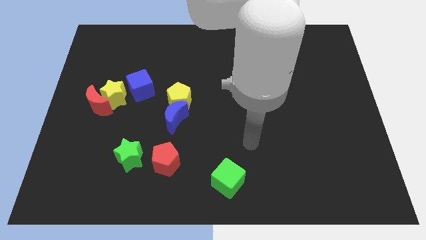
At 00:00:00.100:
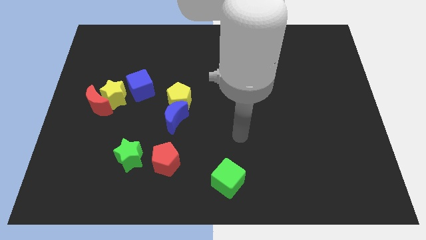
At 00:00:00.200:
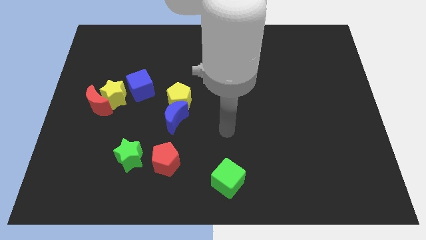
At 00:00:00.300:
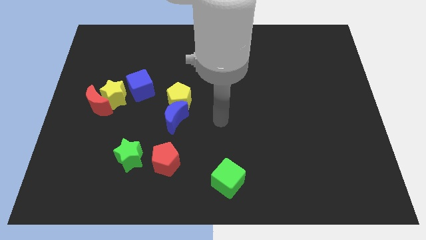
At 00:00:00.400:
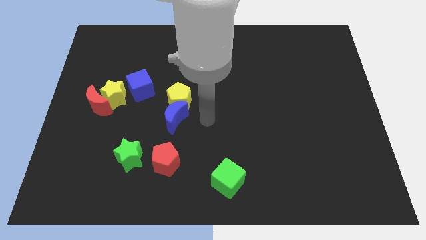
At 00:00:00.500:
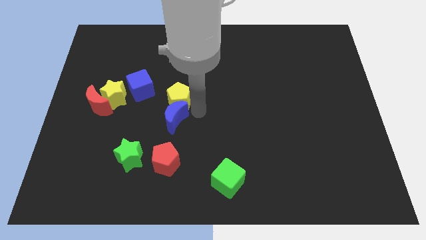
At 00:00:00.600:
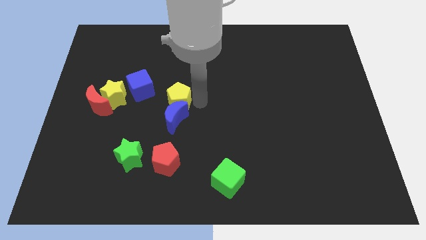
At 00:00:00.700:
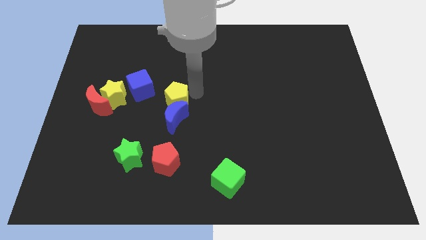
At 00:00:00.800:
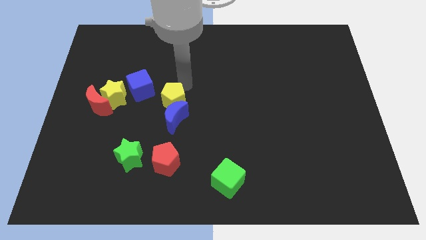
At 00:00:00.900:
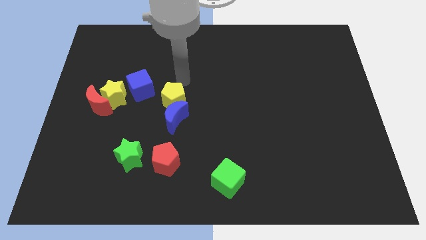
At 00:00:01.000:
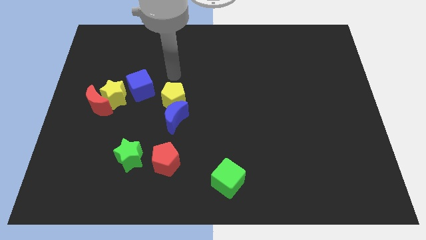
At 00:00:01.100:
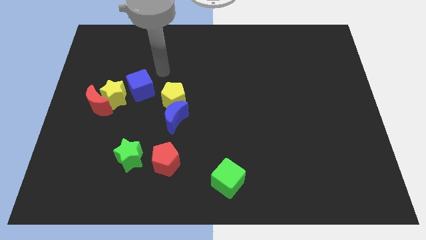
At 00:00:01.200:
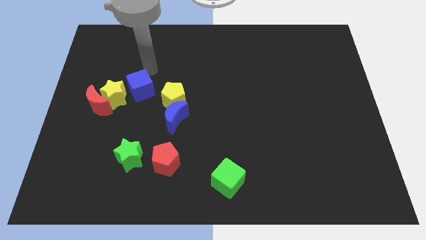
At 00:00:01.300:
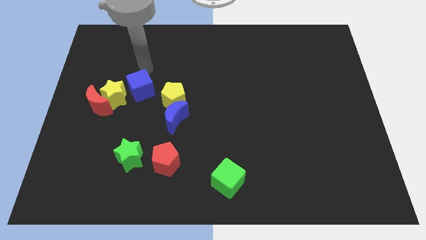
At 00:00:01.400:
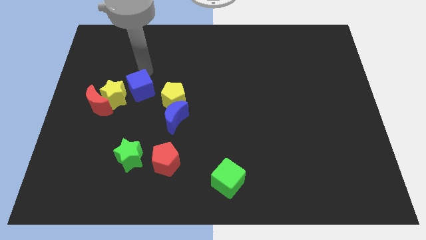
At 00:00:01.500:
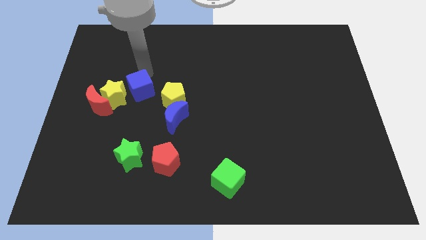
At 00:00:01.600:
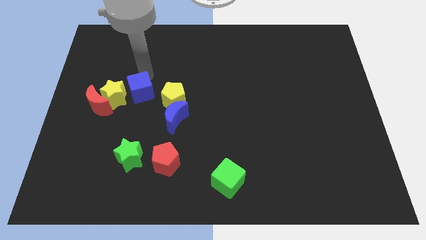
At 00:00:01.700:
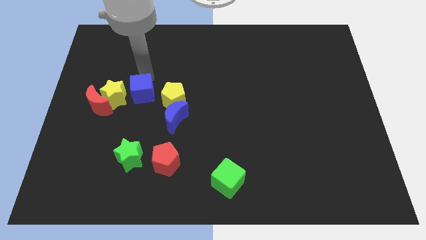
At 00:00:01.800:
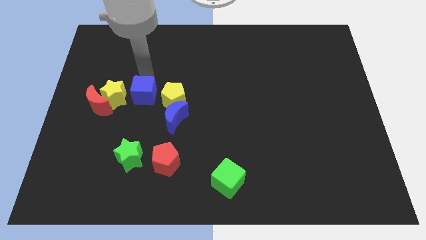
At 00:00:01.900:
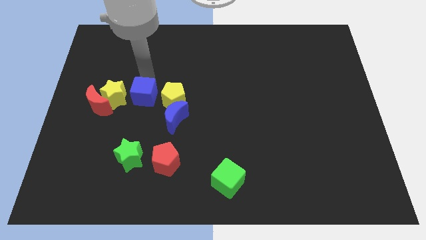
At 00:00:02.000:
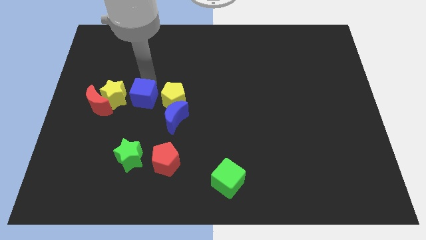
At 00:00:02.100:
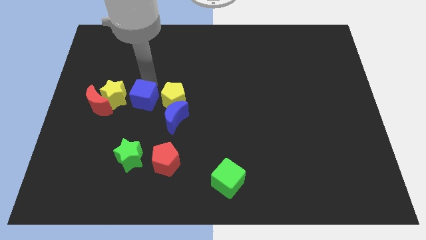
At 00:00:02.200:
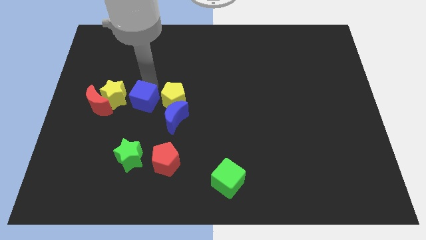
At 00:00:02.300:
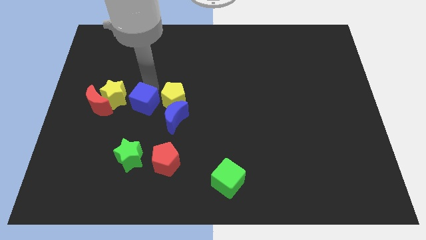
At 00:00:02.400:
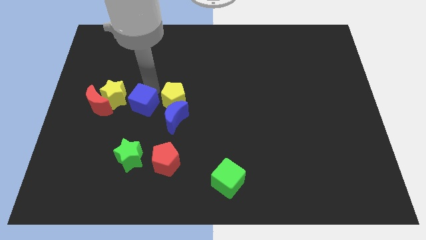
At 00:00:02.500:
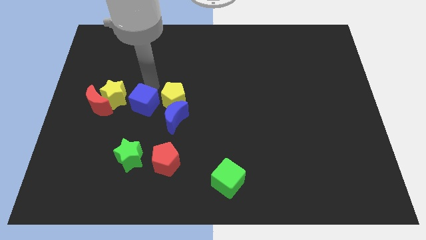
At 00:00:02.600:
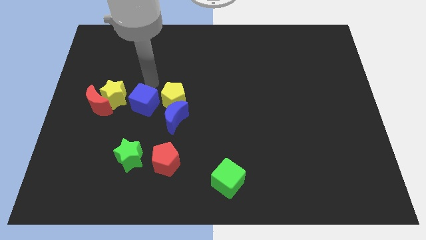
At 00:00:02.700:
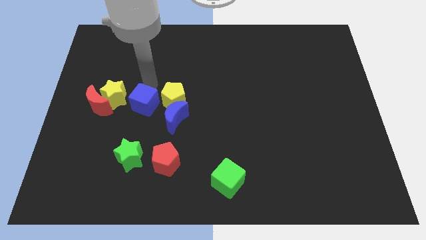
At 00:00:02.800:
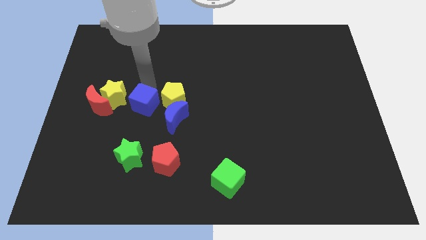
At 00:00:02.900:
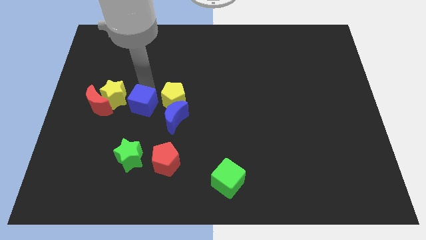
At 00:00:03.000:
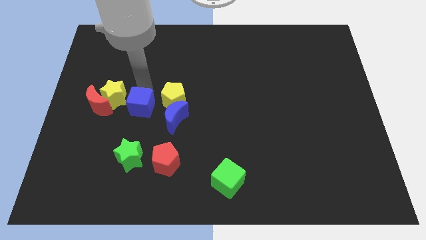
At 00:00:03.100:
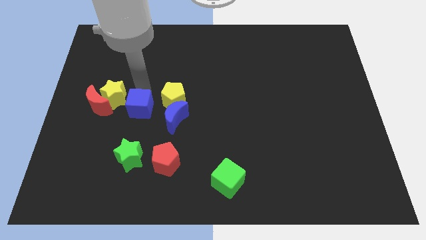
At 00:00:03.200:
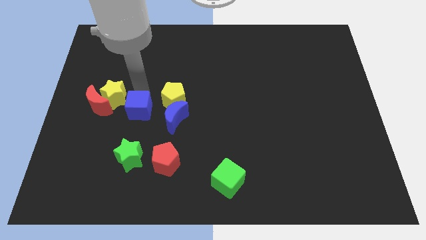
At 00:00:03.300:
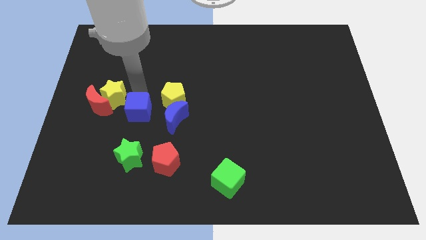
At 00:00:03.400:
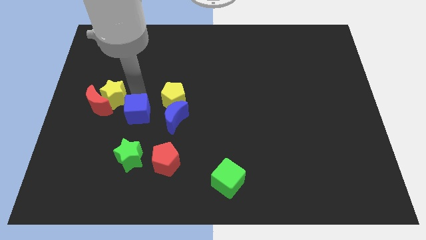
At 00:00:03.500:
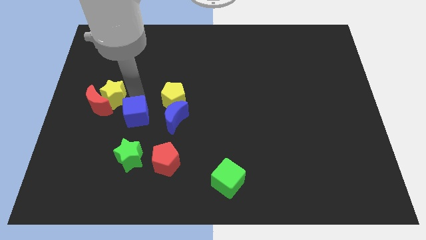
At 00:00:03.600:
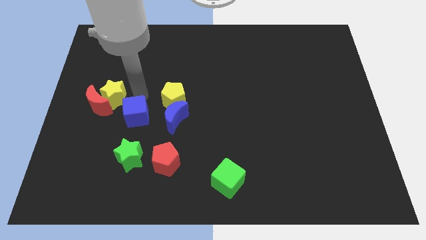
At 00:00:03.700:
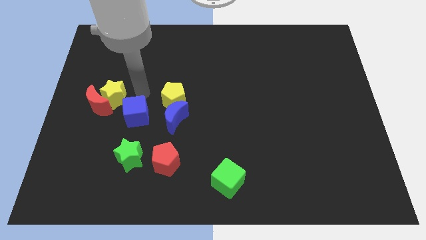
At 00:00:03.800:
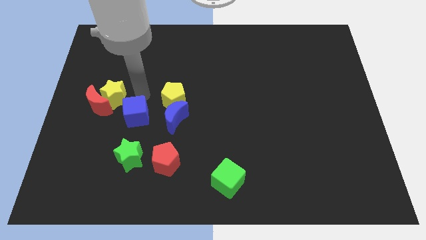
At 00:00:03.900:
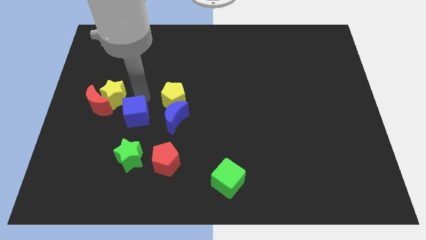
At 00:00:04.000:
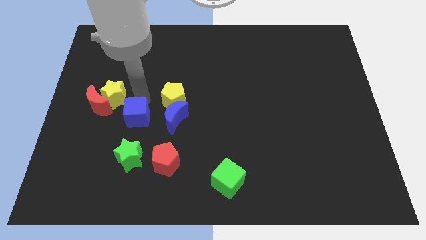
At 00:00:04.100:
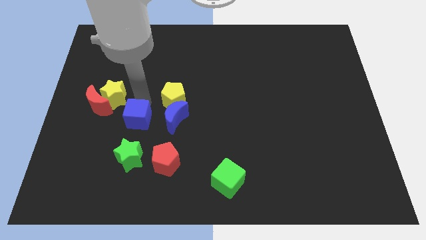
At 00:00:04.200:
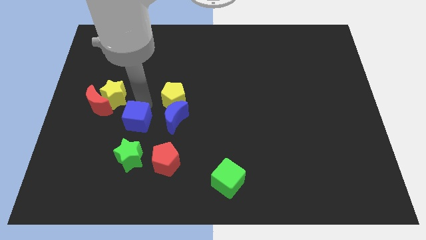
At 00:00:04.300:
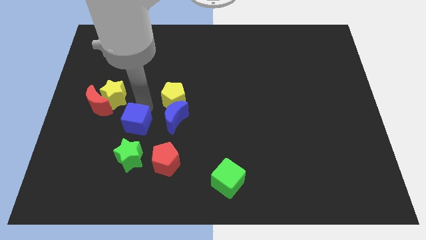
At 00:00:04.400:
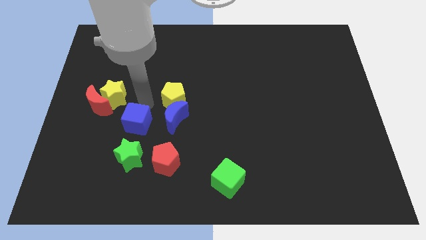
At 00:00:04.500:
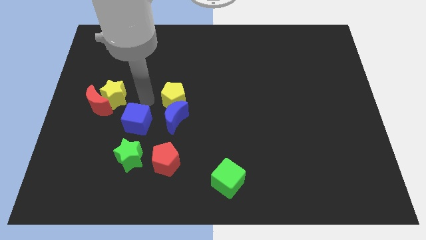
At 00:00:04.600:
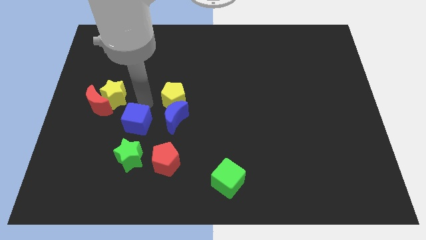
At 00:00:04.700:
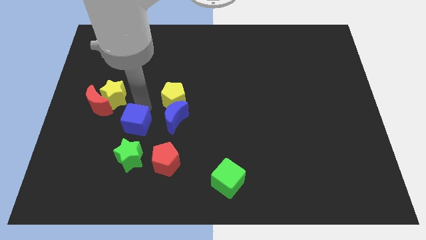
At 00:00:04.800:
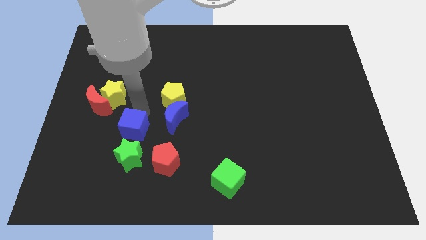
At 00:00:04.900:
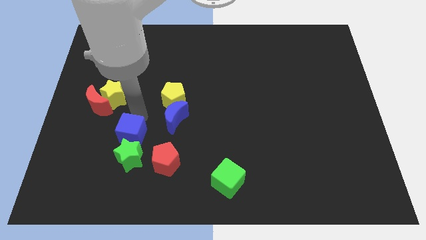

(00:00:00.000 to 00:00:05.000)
slide the blue cube towards the green star

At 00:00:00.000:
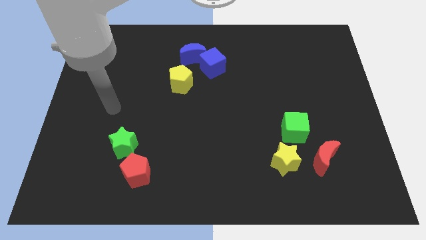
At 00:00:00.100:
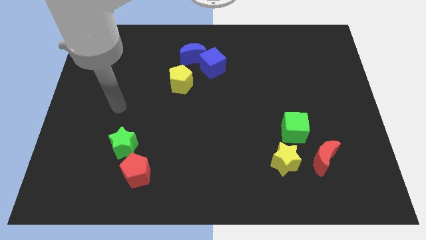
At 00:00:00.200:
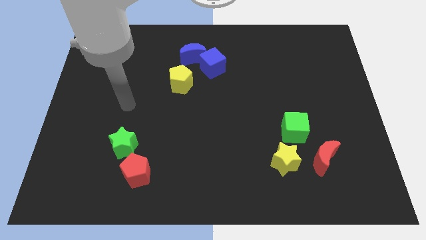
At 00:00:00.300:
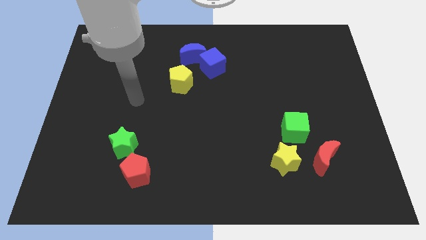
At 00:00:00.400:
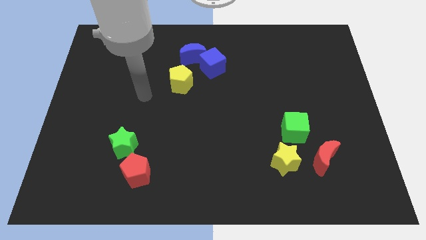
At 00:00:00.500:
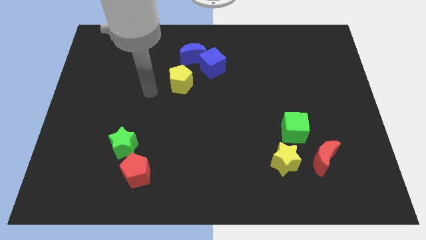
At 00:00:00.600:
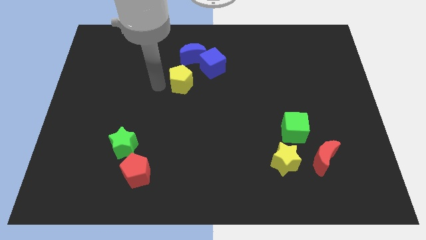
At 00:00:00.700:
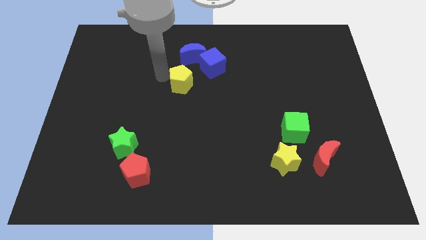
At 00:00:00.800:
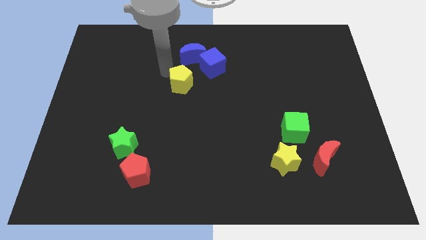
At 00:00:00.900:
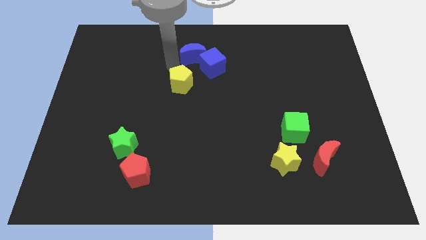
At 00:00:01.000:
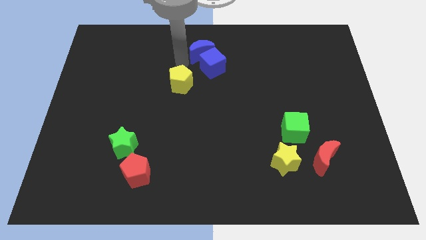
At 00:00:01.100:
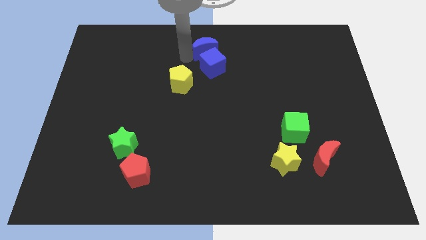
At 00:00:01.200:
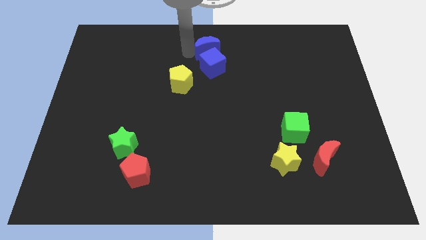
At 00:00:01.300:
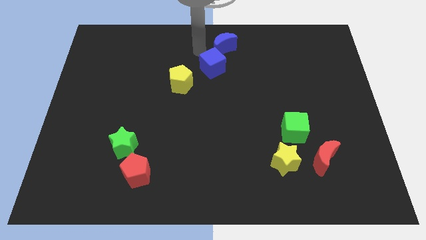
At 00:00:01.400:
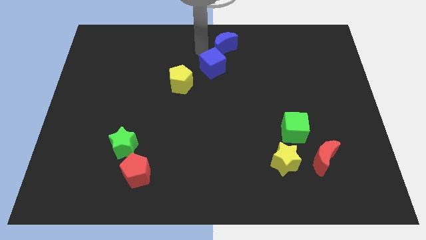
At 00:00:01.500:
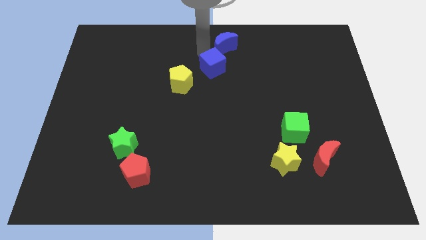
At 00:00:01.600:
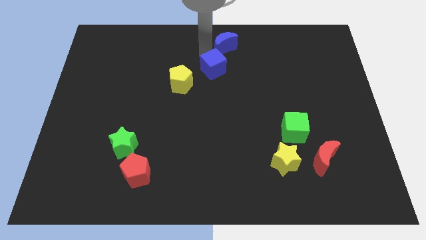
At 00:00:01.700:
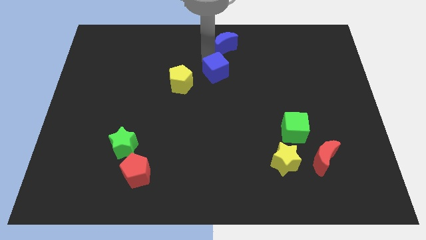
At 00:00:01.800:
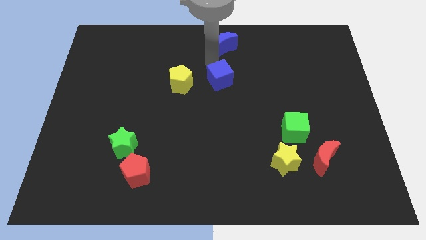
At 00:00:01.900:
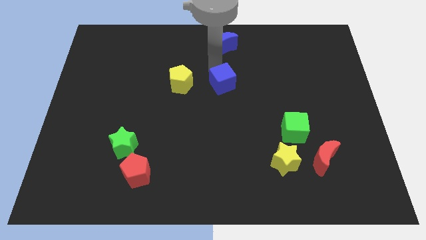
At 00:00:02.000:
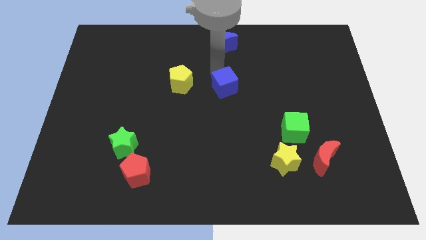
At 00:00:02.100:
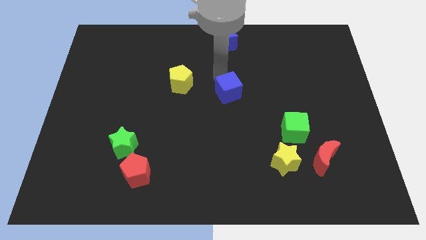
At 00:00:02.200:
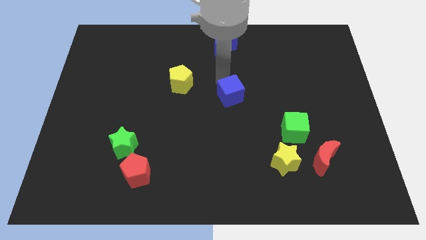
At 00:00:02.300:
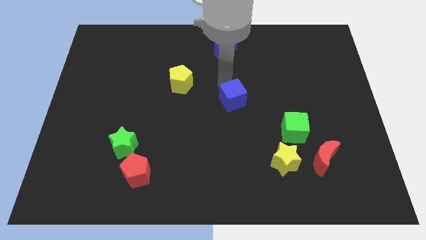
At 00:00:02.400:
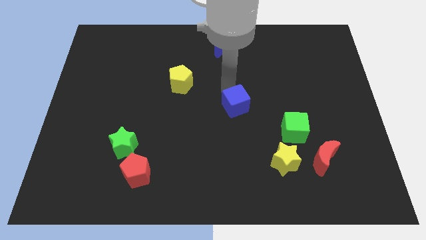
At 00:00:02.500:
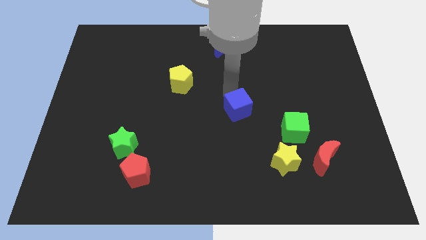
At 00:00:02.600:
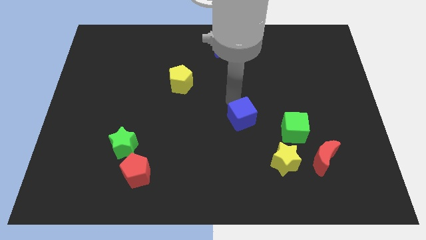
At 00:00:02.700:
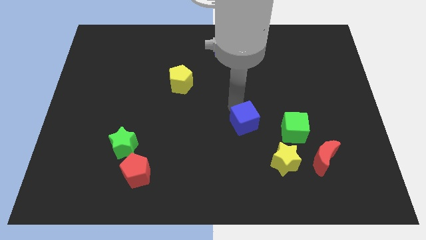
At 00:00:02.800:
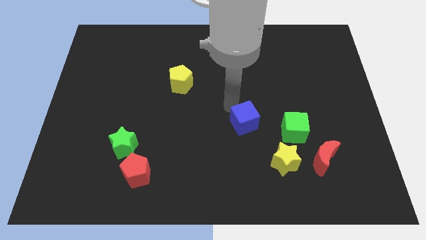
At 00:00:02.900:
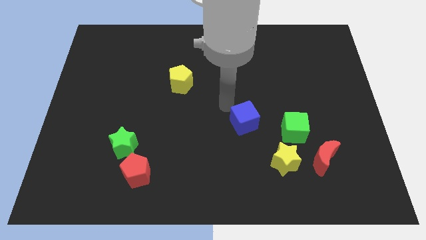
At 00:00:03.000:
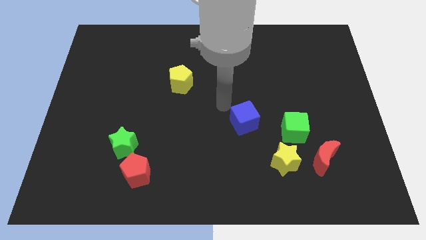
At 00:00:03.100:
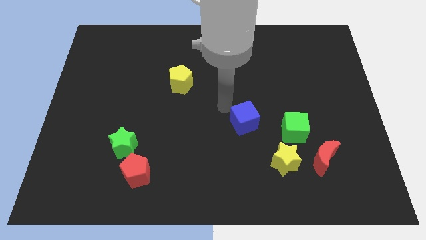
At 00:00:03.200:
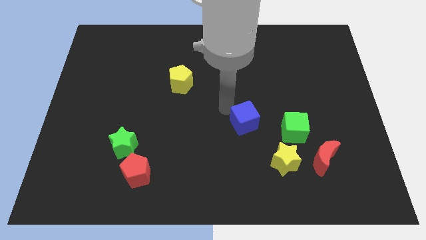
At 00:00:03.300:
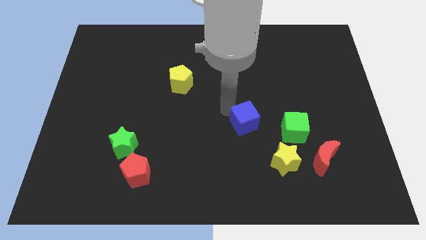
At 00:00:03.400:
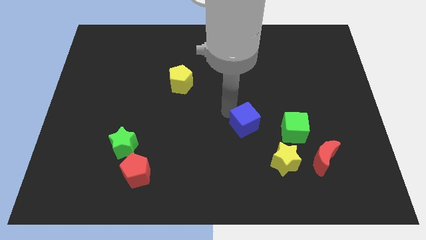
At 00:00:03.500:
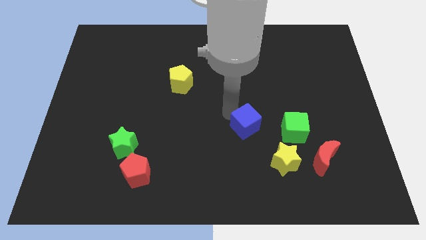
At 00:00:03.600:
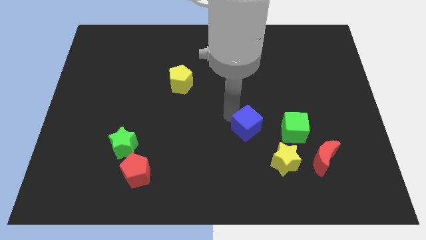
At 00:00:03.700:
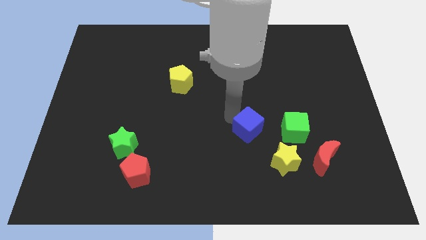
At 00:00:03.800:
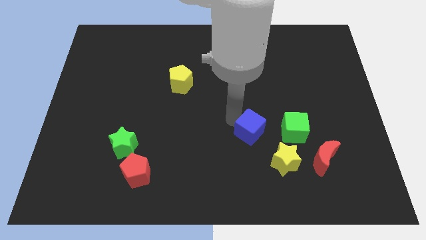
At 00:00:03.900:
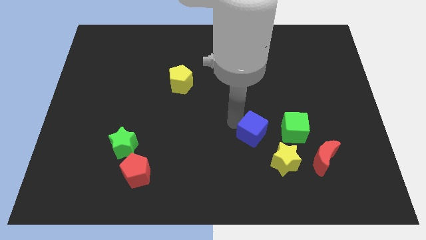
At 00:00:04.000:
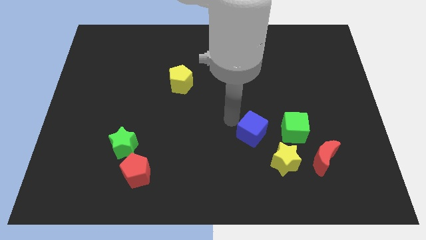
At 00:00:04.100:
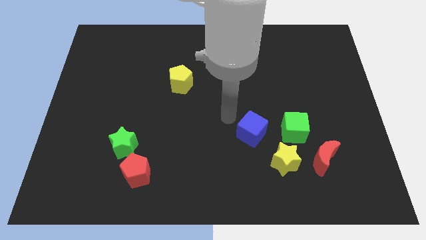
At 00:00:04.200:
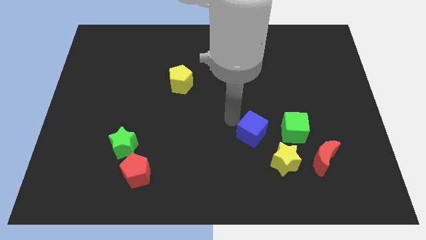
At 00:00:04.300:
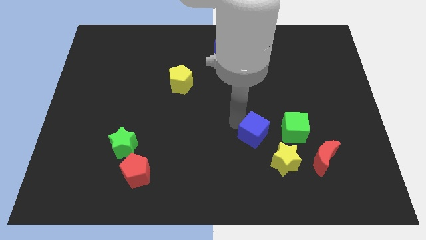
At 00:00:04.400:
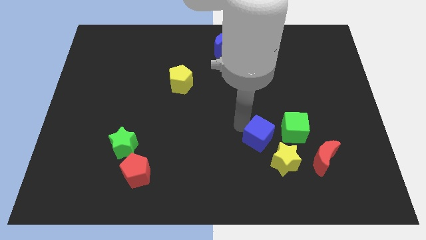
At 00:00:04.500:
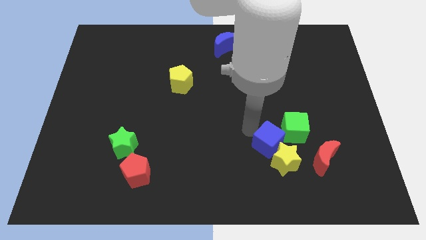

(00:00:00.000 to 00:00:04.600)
push the blue cube next to the yellow star
